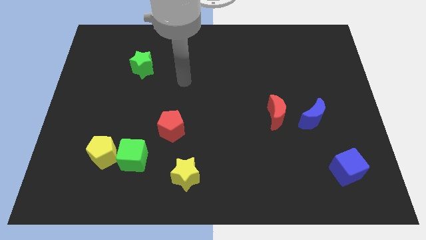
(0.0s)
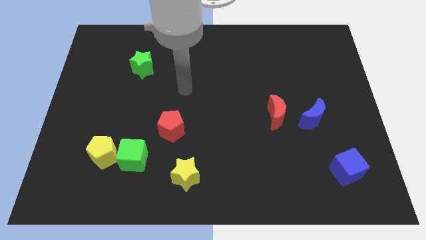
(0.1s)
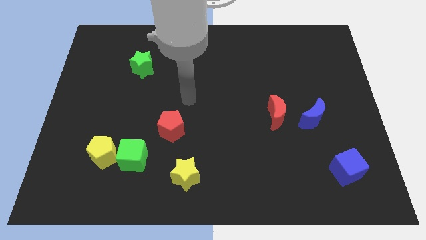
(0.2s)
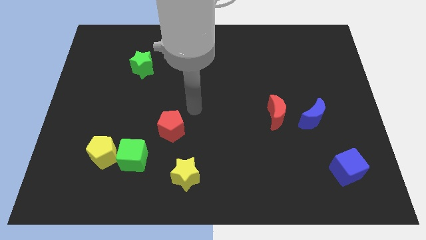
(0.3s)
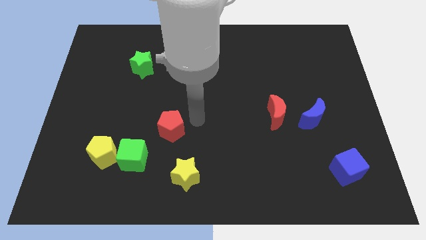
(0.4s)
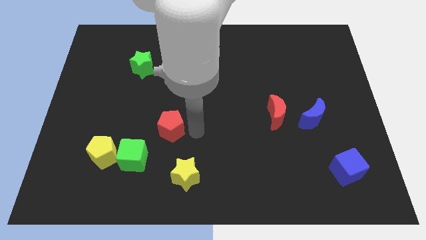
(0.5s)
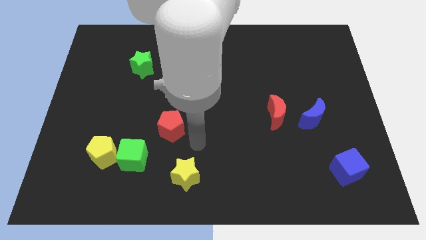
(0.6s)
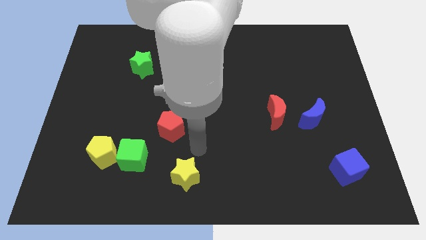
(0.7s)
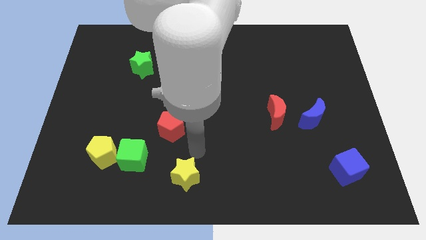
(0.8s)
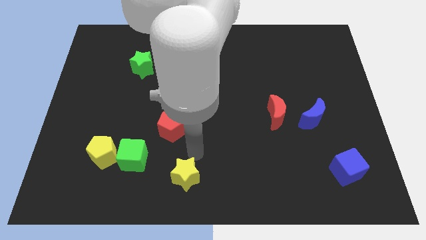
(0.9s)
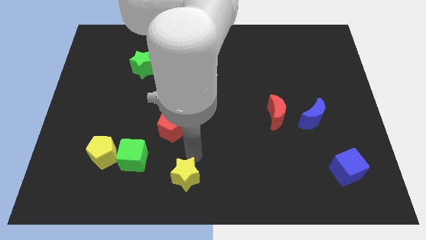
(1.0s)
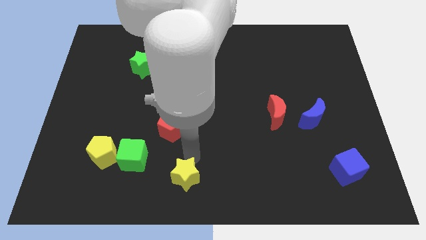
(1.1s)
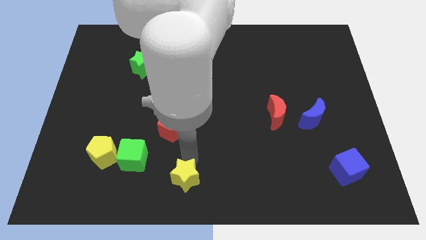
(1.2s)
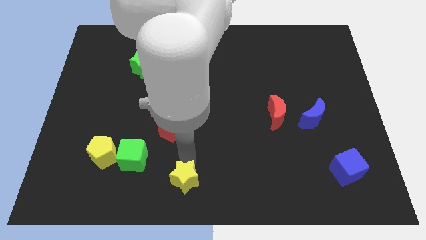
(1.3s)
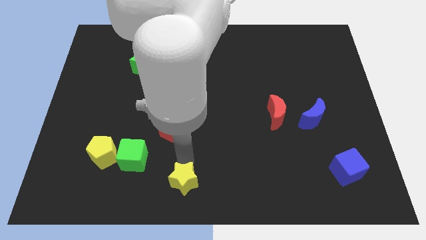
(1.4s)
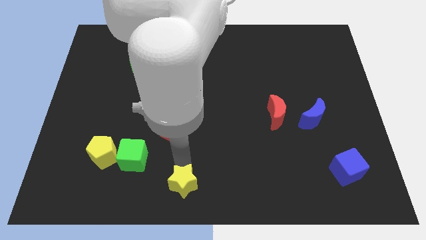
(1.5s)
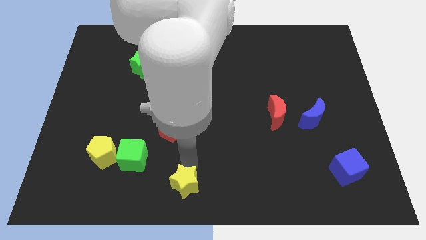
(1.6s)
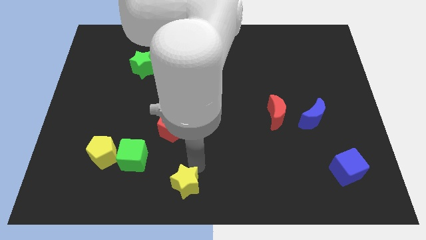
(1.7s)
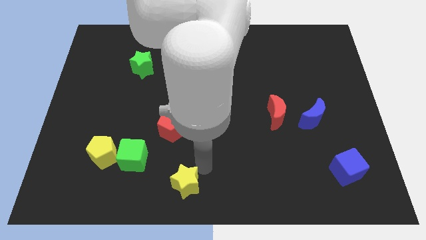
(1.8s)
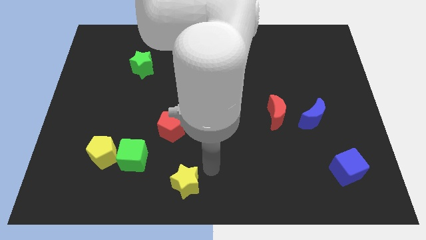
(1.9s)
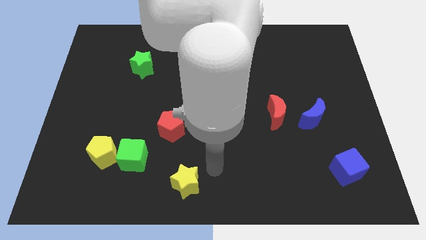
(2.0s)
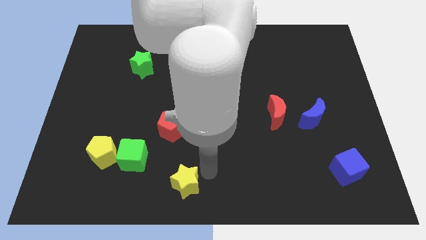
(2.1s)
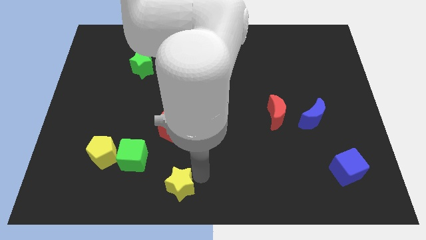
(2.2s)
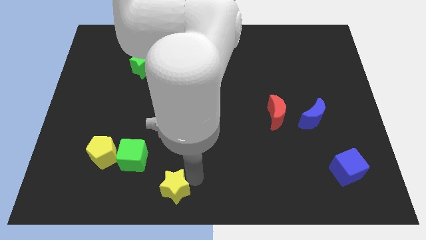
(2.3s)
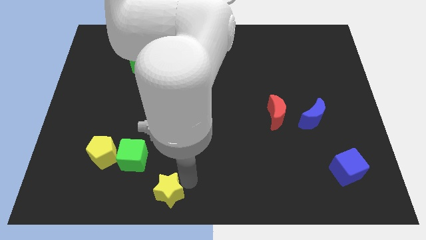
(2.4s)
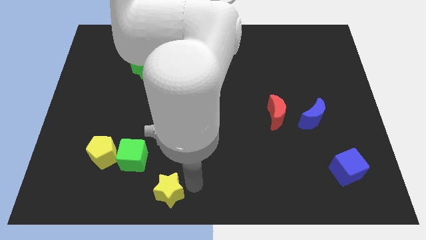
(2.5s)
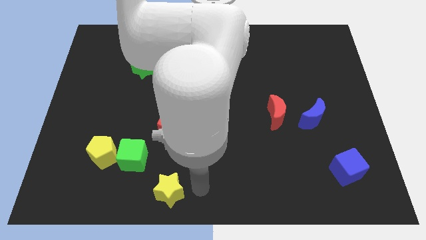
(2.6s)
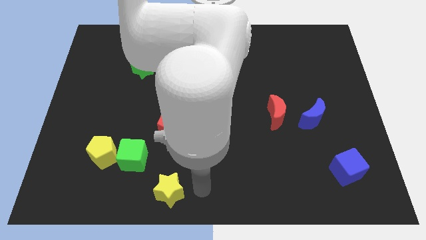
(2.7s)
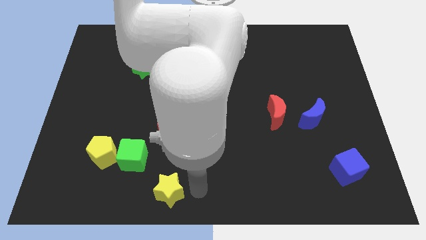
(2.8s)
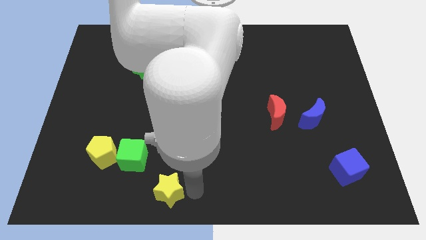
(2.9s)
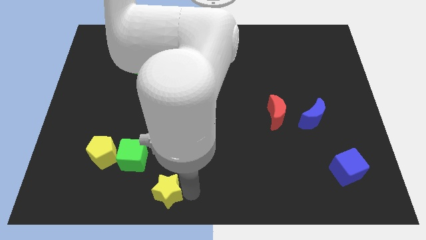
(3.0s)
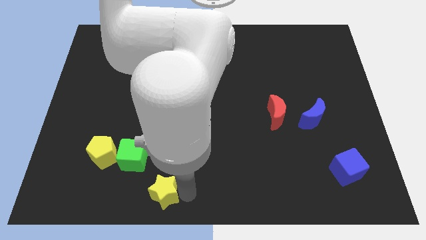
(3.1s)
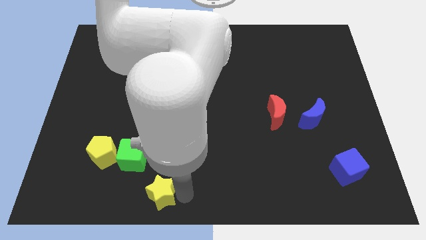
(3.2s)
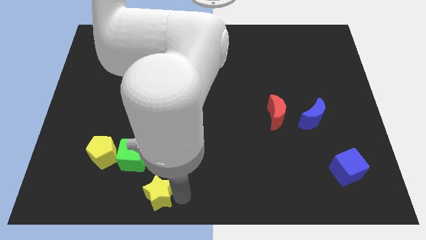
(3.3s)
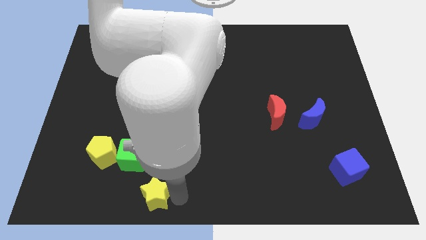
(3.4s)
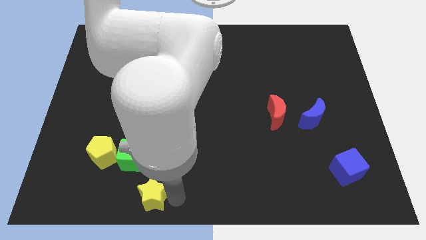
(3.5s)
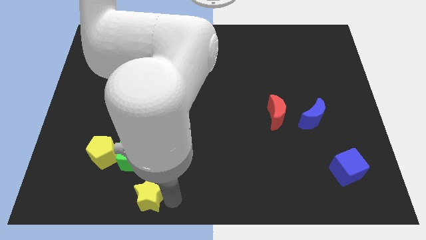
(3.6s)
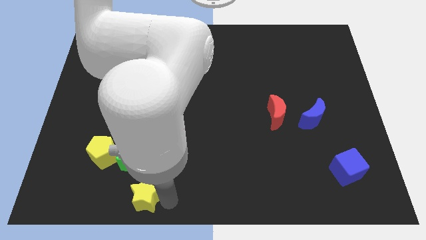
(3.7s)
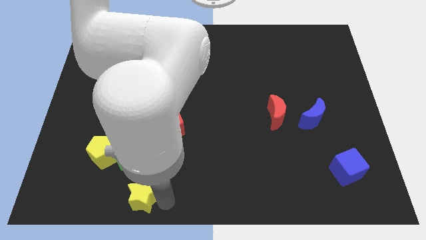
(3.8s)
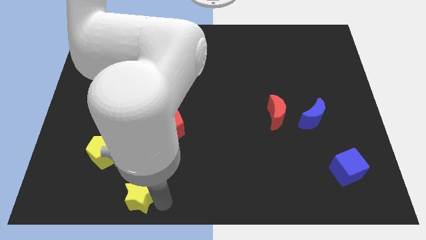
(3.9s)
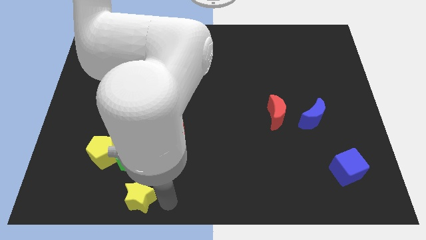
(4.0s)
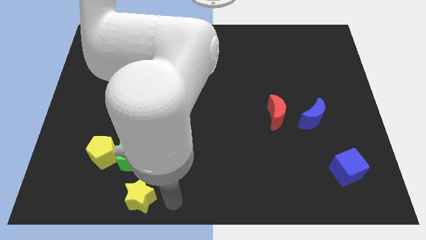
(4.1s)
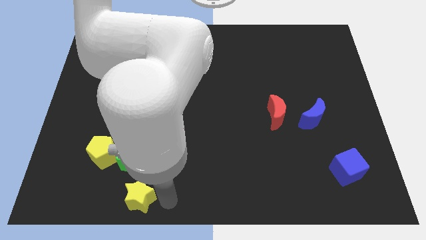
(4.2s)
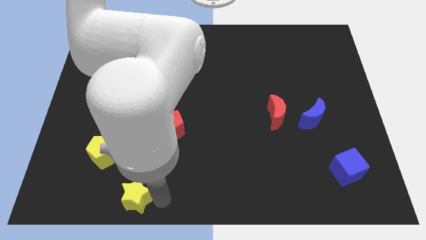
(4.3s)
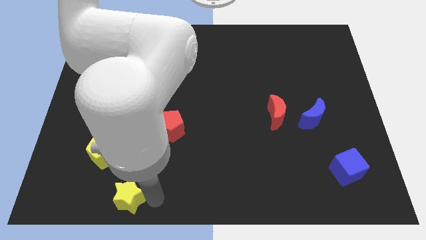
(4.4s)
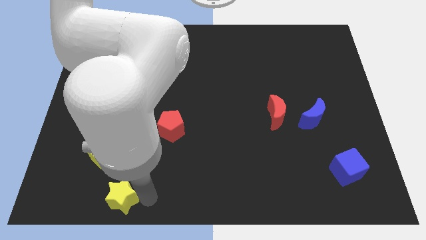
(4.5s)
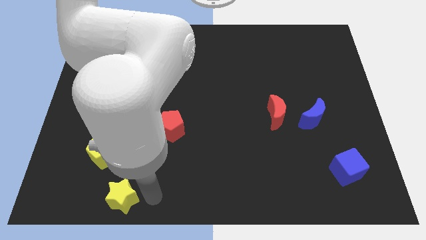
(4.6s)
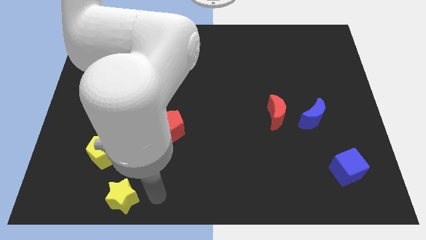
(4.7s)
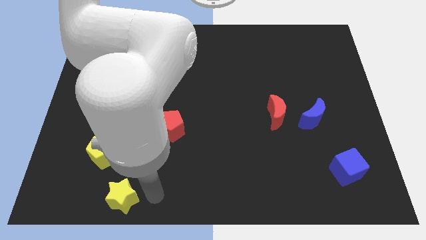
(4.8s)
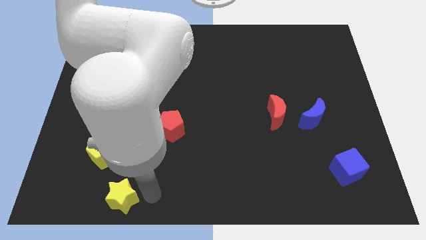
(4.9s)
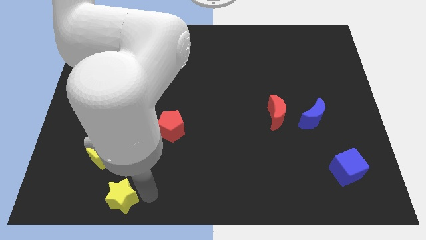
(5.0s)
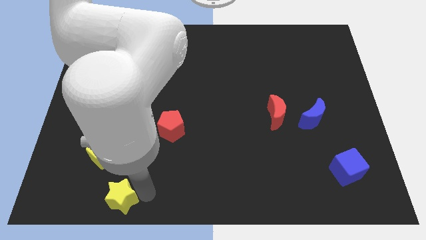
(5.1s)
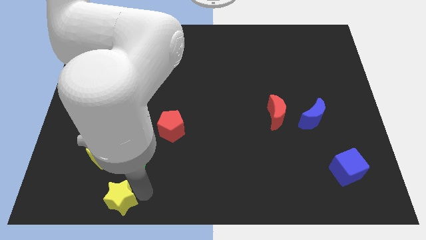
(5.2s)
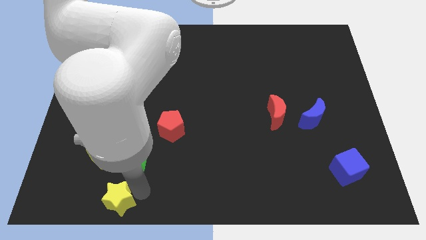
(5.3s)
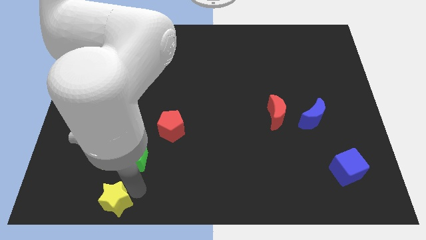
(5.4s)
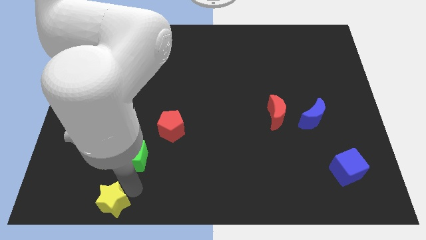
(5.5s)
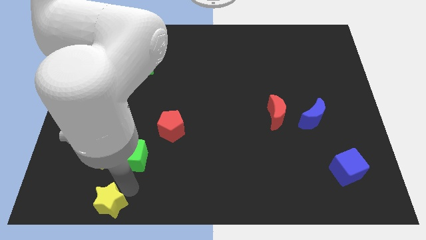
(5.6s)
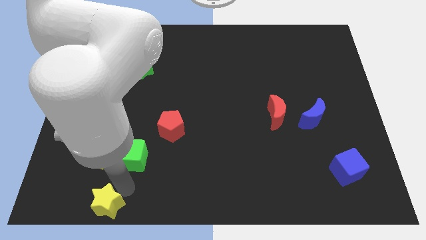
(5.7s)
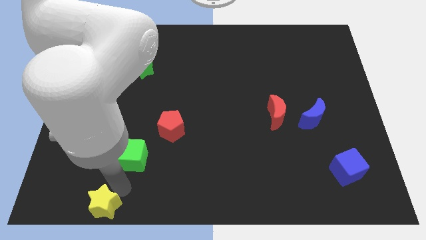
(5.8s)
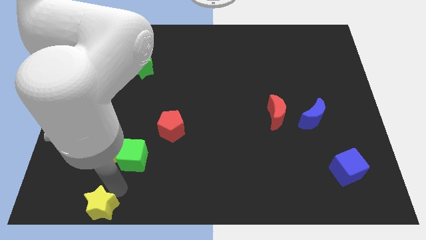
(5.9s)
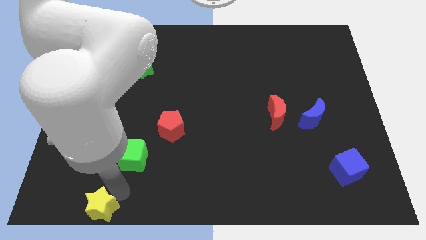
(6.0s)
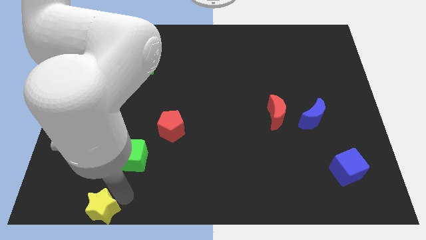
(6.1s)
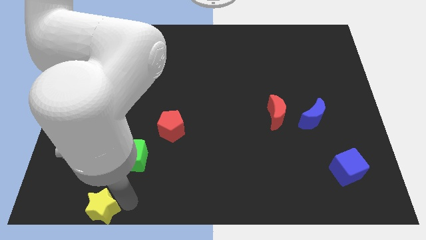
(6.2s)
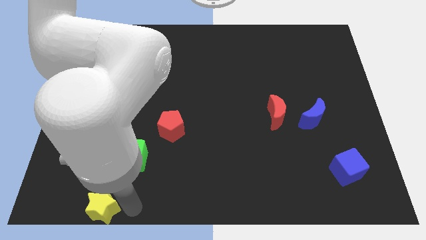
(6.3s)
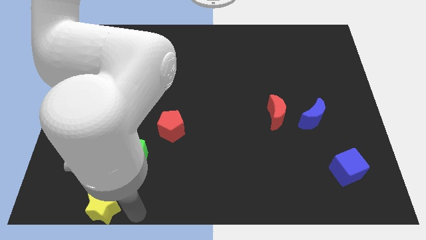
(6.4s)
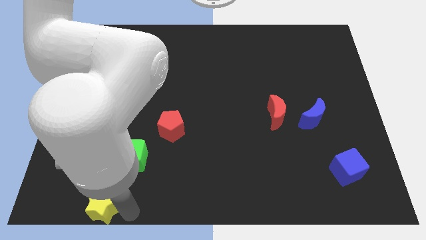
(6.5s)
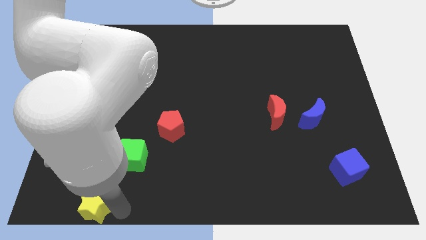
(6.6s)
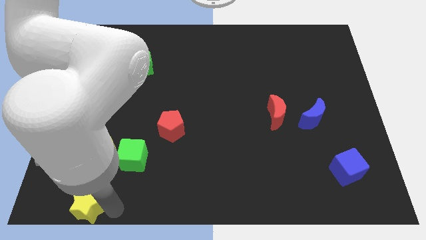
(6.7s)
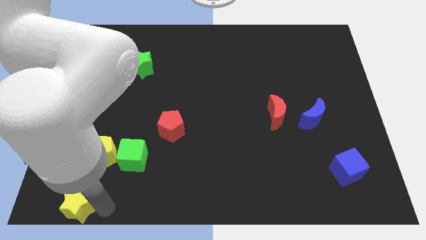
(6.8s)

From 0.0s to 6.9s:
move the yellow star to the lower left corner

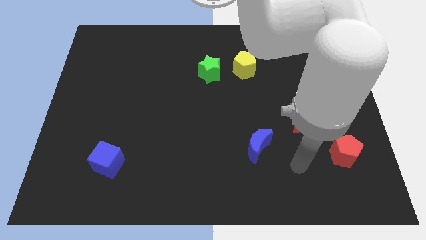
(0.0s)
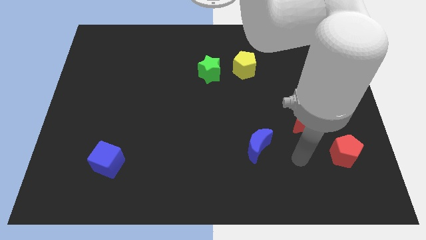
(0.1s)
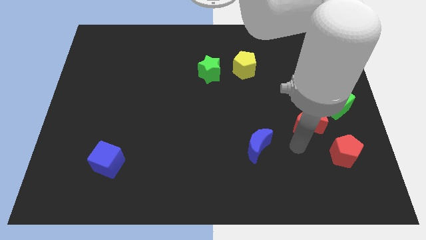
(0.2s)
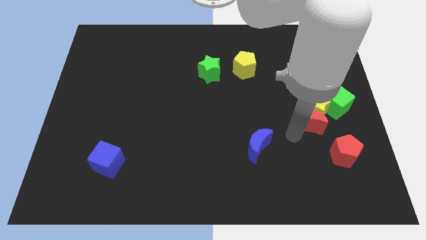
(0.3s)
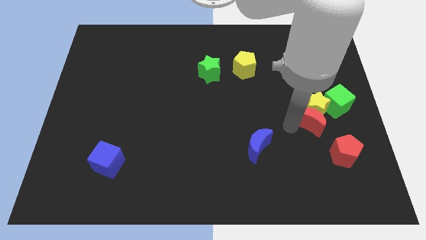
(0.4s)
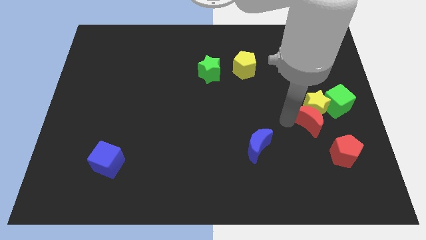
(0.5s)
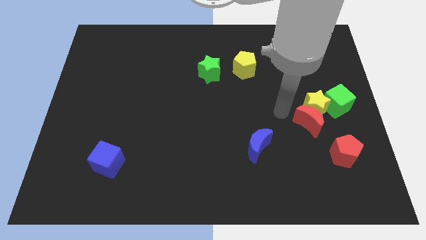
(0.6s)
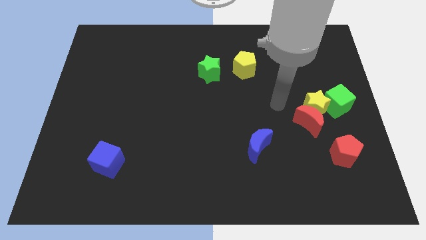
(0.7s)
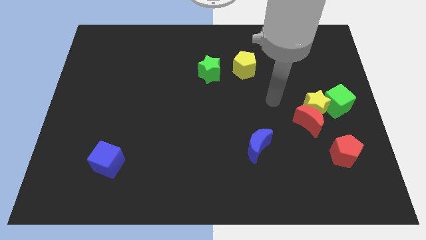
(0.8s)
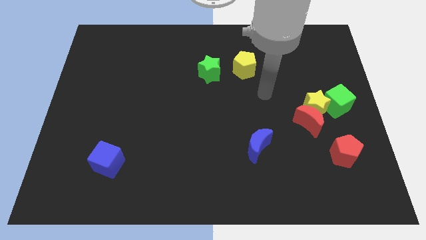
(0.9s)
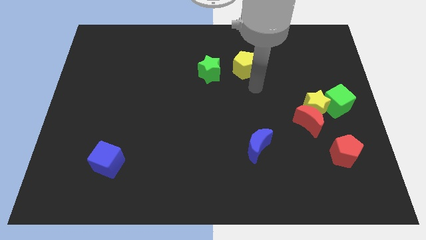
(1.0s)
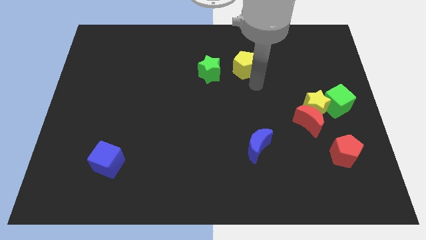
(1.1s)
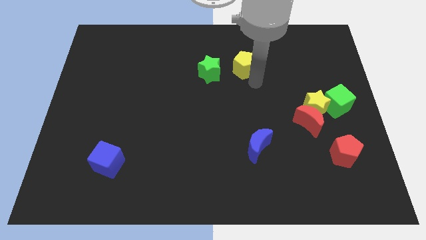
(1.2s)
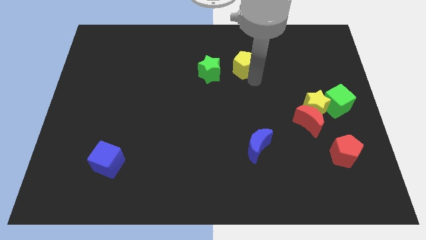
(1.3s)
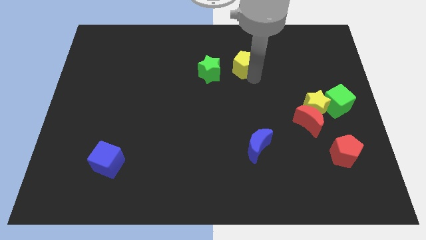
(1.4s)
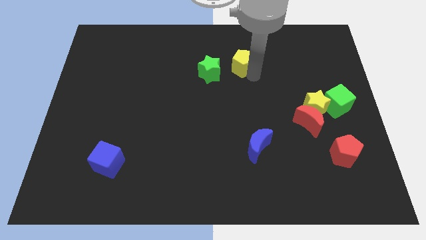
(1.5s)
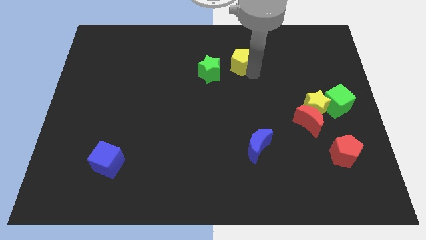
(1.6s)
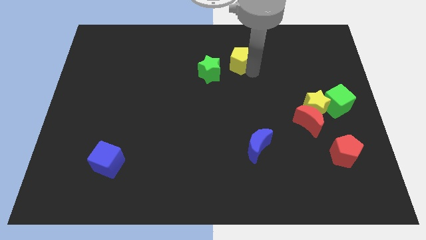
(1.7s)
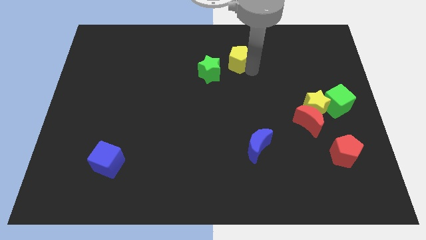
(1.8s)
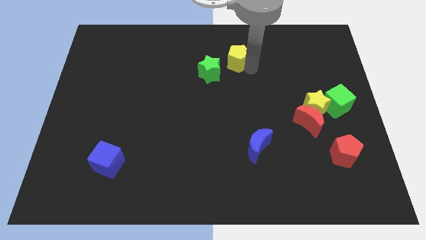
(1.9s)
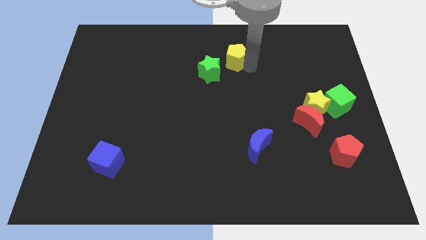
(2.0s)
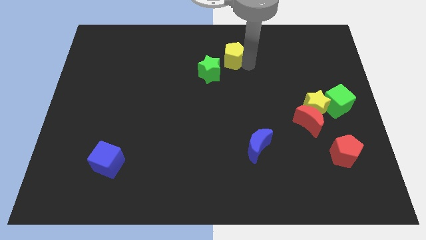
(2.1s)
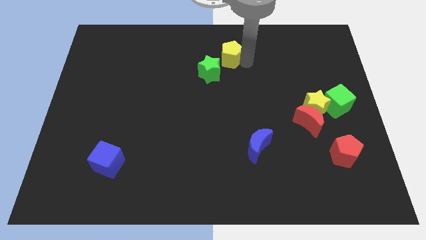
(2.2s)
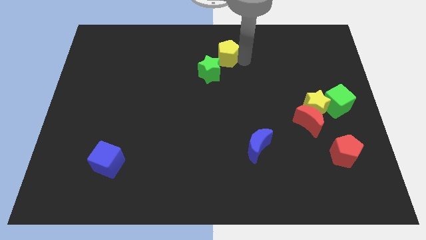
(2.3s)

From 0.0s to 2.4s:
slide the yellow pentagon to the top
